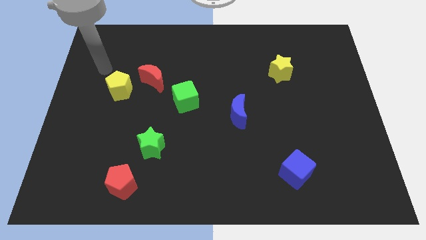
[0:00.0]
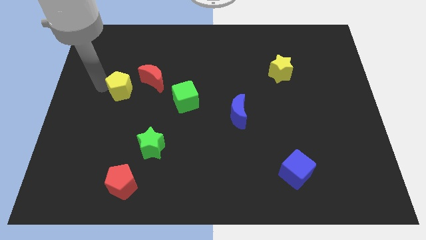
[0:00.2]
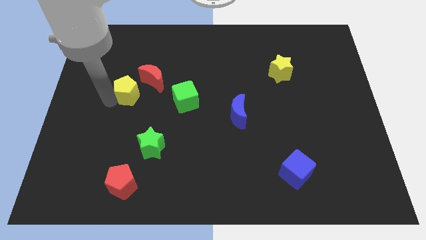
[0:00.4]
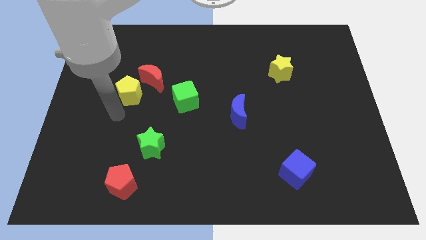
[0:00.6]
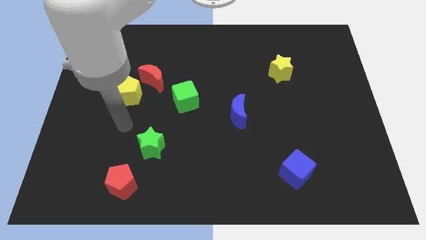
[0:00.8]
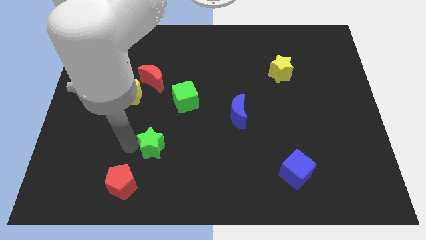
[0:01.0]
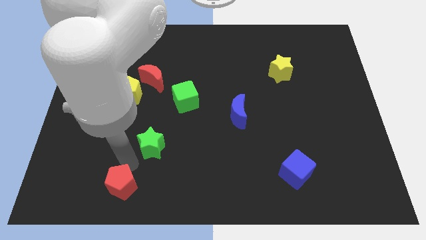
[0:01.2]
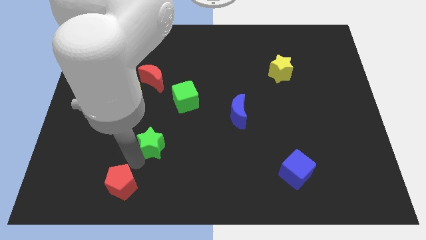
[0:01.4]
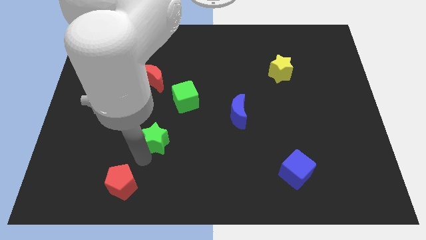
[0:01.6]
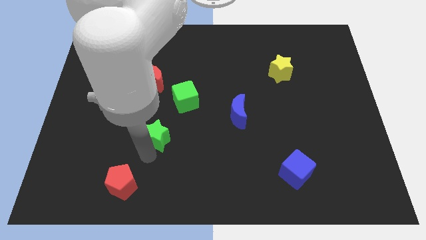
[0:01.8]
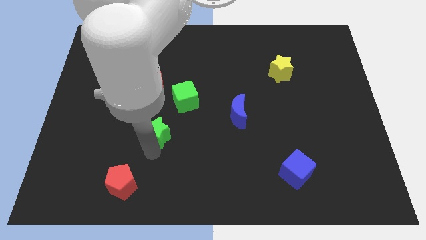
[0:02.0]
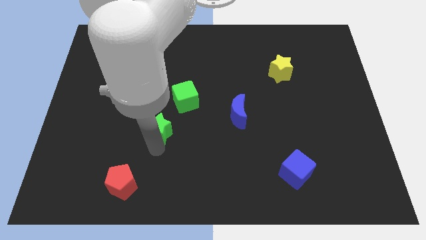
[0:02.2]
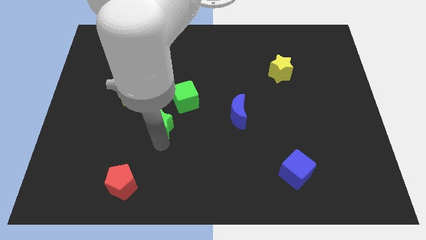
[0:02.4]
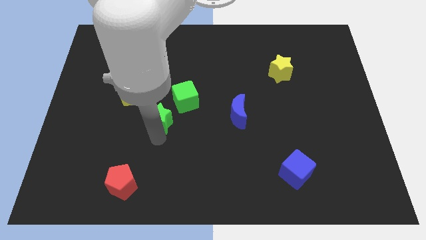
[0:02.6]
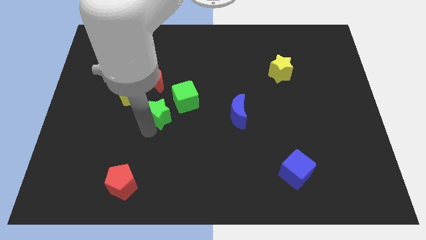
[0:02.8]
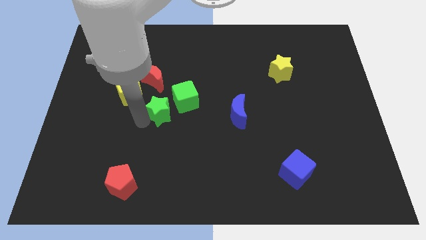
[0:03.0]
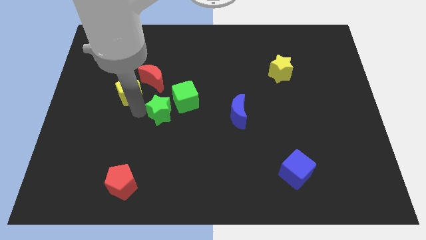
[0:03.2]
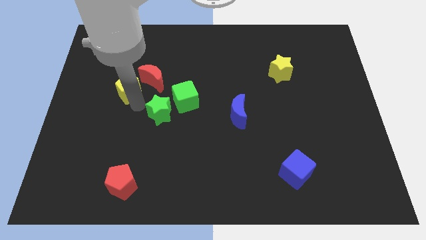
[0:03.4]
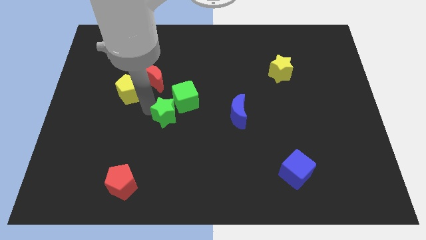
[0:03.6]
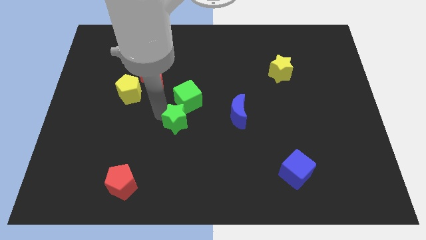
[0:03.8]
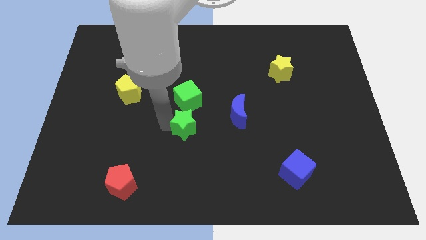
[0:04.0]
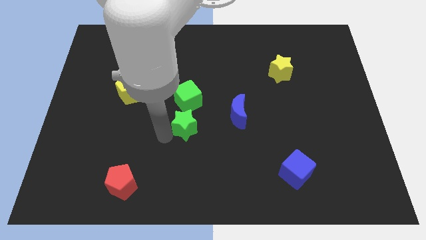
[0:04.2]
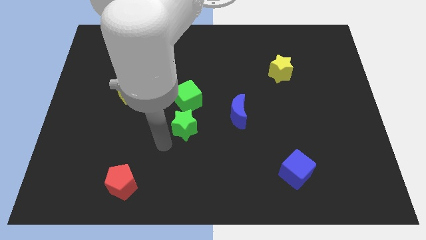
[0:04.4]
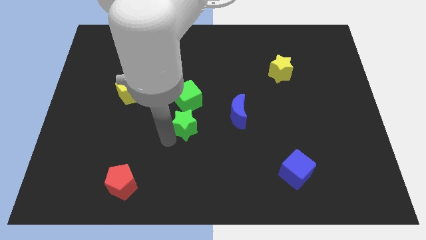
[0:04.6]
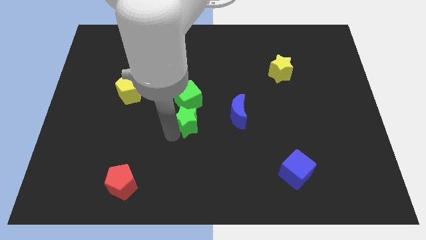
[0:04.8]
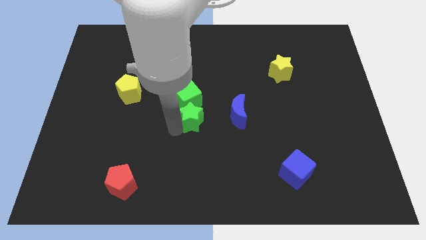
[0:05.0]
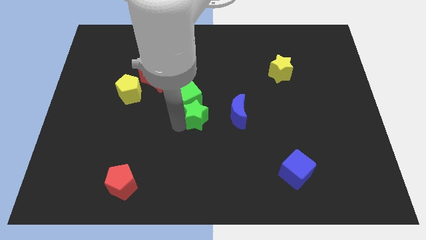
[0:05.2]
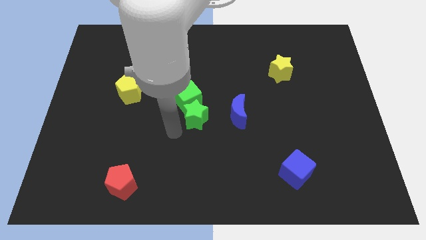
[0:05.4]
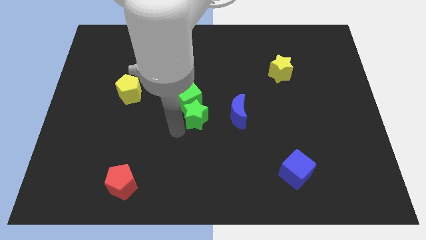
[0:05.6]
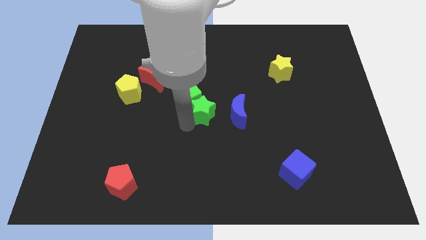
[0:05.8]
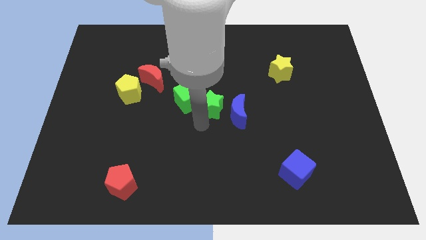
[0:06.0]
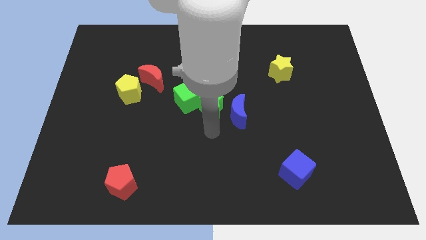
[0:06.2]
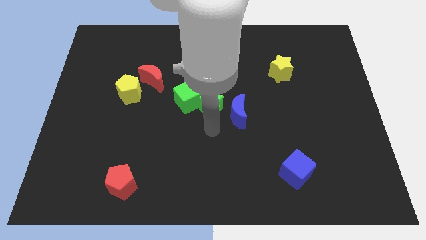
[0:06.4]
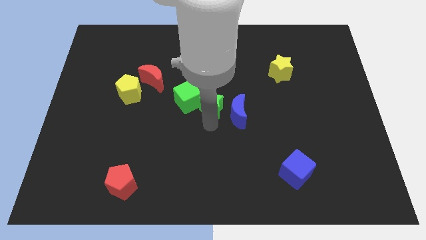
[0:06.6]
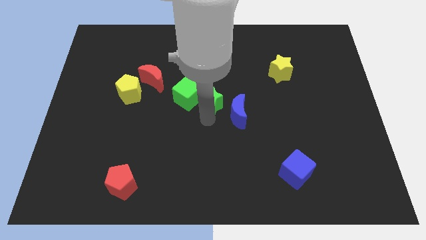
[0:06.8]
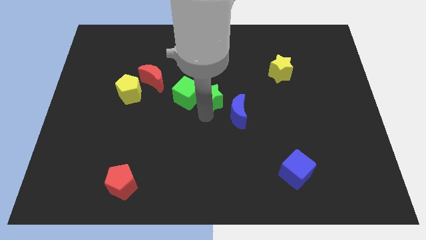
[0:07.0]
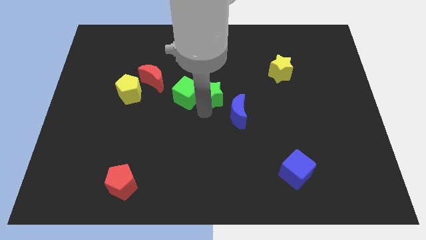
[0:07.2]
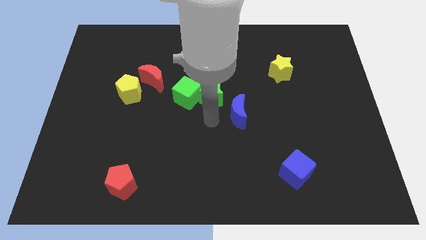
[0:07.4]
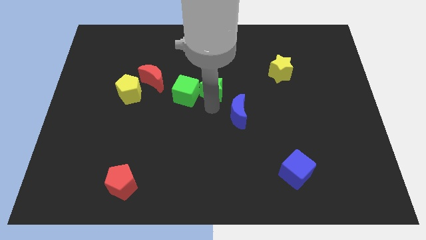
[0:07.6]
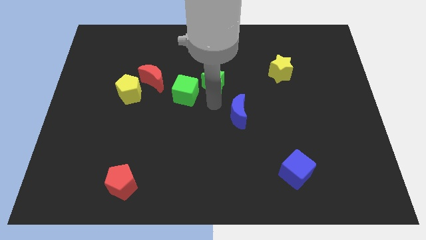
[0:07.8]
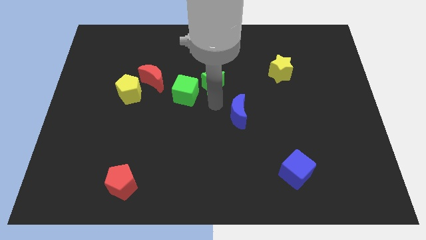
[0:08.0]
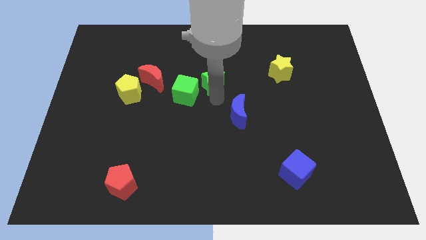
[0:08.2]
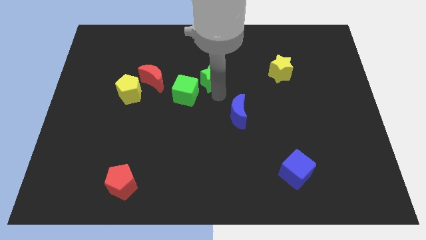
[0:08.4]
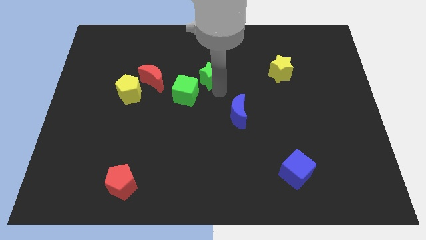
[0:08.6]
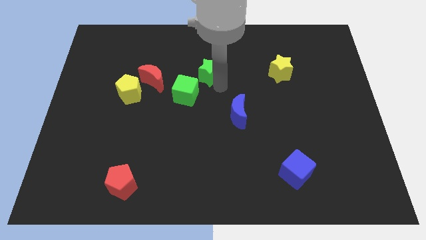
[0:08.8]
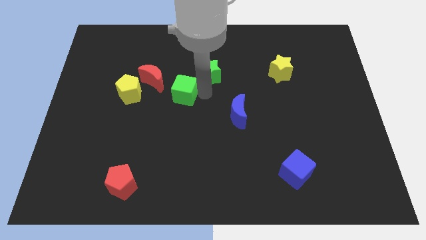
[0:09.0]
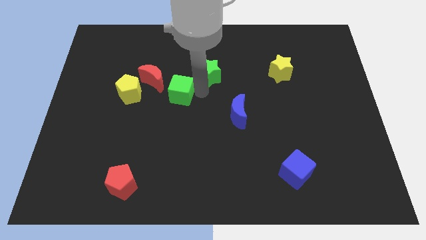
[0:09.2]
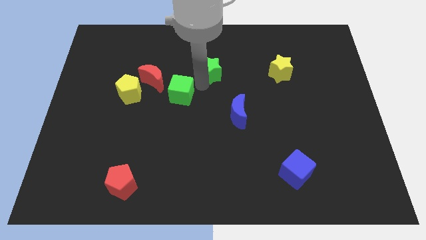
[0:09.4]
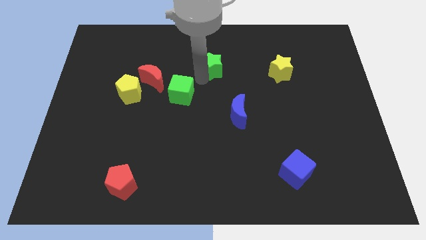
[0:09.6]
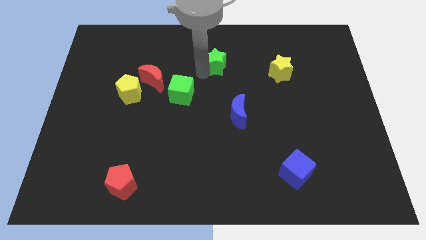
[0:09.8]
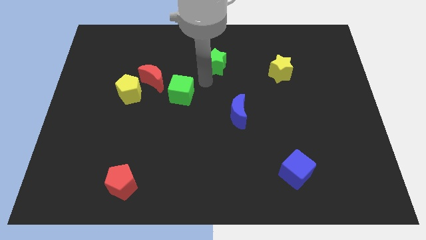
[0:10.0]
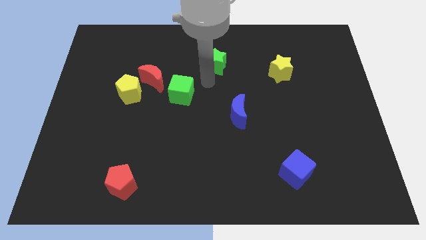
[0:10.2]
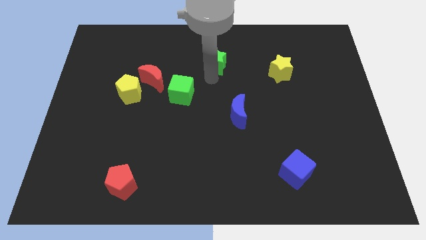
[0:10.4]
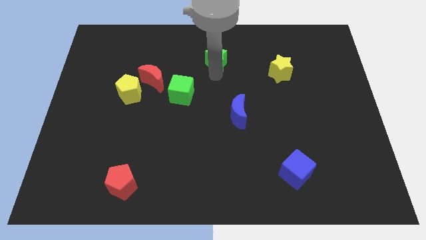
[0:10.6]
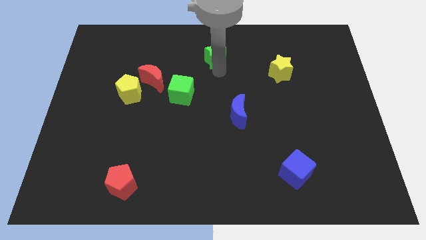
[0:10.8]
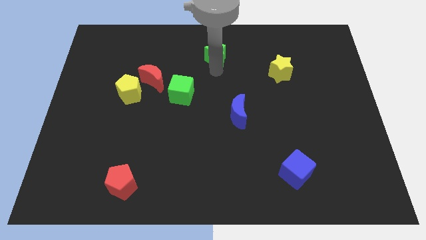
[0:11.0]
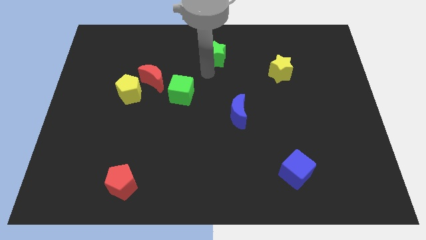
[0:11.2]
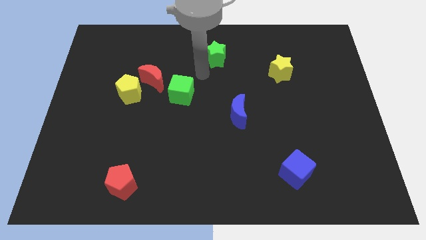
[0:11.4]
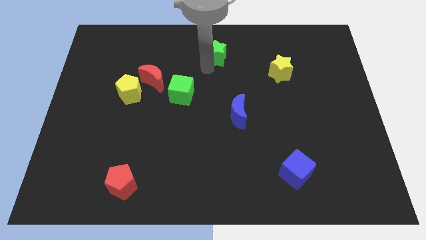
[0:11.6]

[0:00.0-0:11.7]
move the green star to the top side
